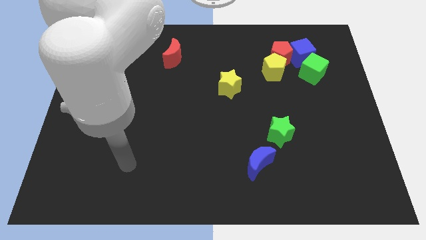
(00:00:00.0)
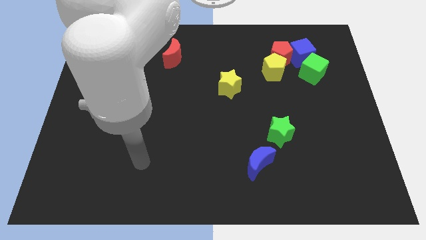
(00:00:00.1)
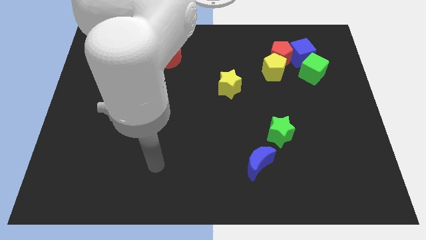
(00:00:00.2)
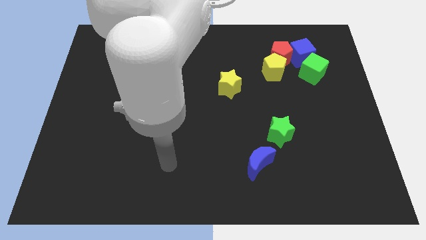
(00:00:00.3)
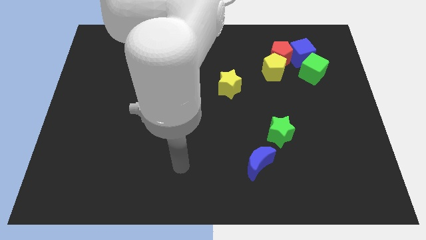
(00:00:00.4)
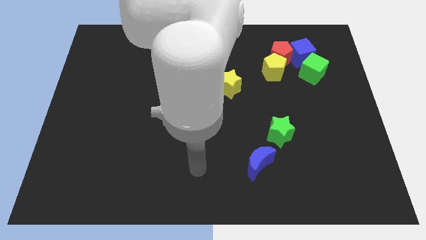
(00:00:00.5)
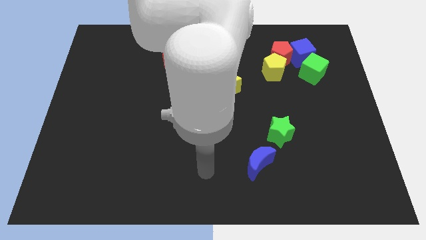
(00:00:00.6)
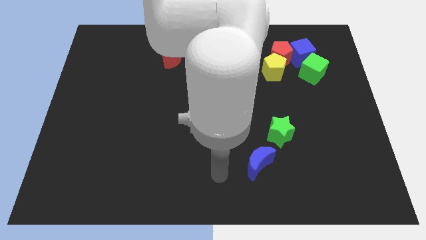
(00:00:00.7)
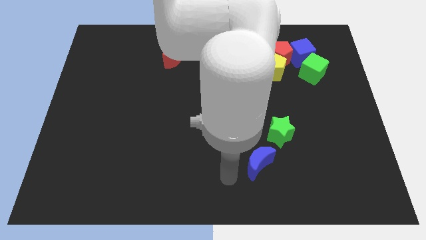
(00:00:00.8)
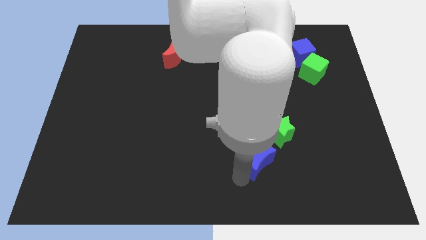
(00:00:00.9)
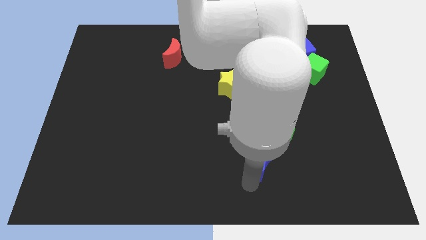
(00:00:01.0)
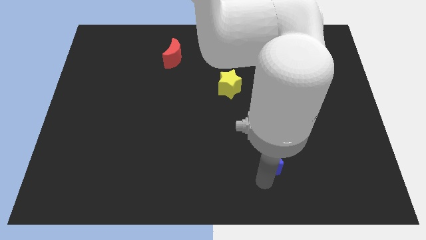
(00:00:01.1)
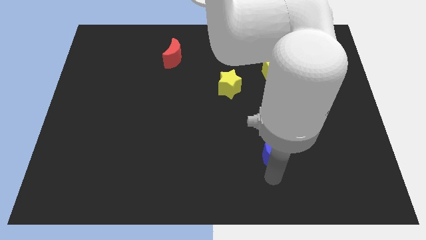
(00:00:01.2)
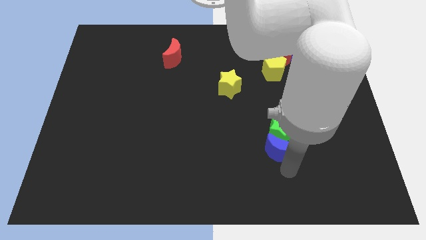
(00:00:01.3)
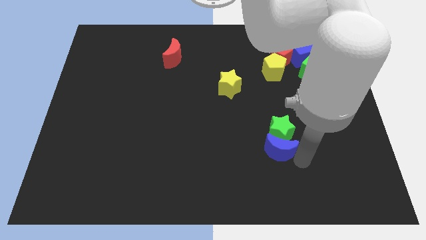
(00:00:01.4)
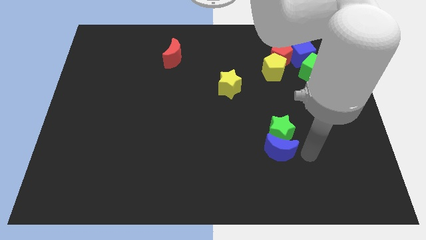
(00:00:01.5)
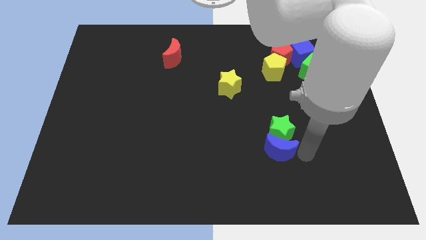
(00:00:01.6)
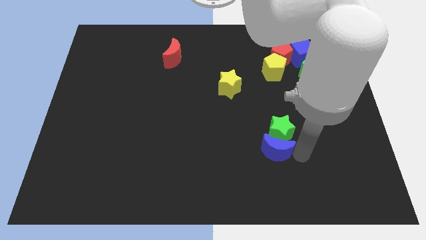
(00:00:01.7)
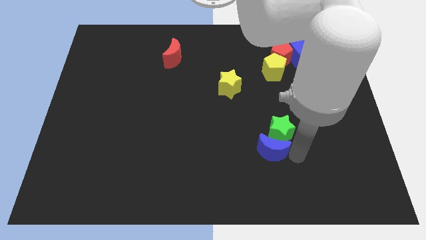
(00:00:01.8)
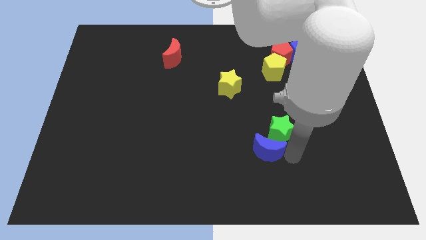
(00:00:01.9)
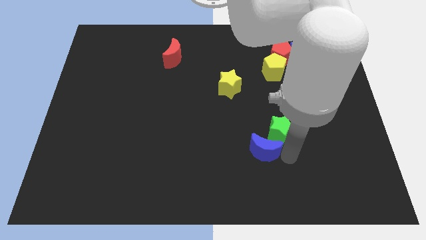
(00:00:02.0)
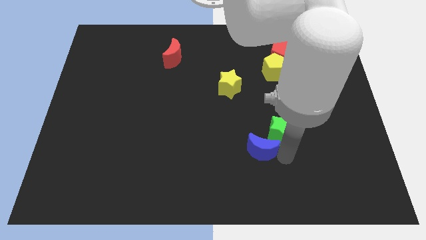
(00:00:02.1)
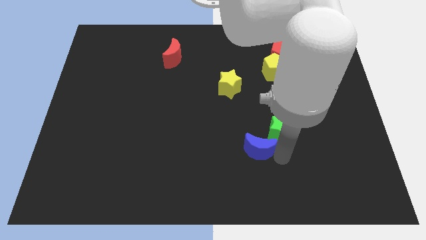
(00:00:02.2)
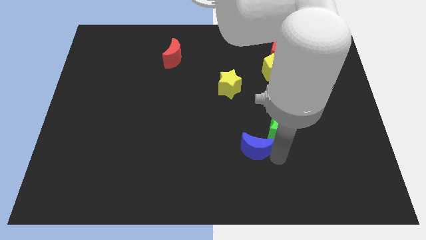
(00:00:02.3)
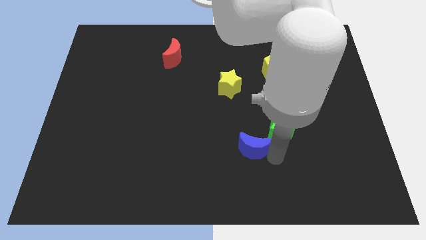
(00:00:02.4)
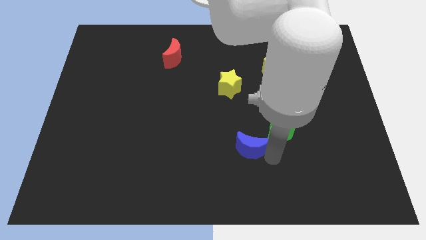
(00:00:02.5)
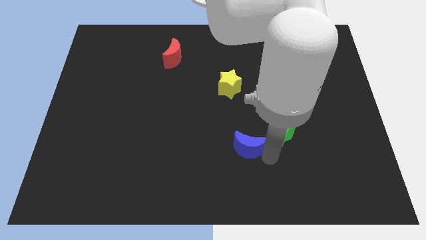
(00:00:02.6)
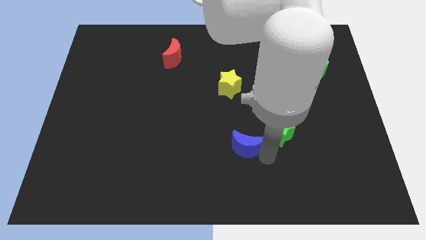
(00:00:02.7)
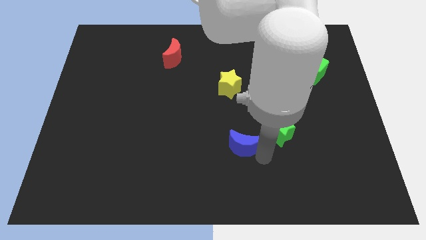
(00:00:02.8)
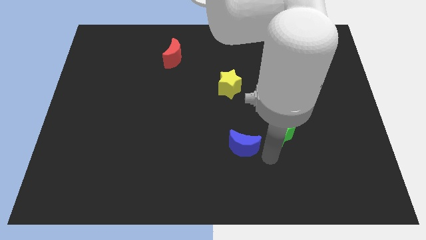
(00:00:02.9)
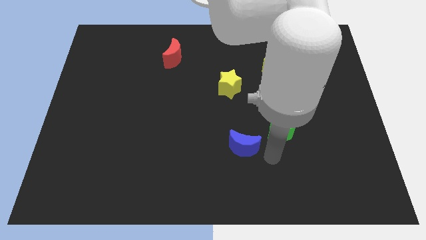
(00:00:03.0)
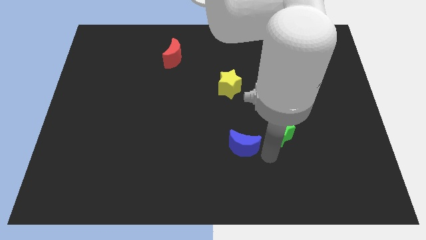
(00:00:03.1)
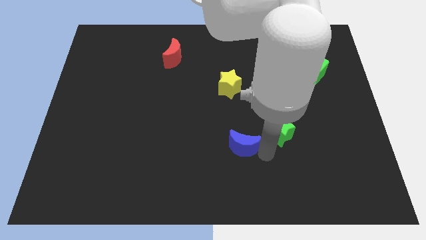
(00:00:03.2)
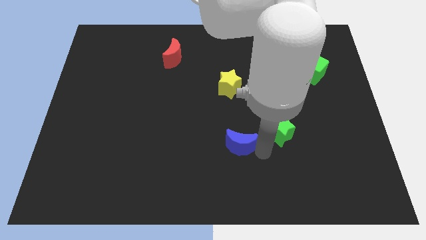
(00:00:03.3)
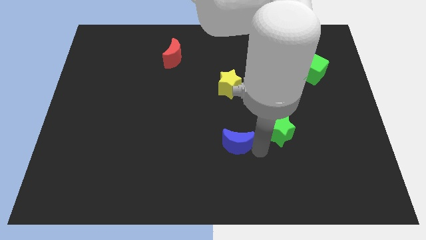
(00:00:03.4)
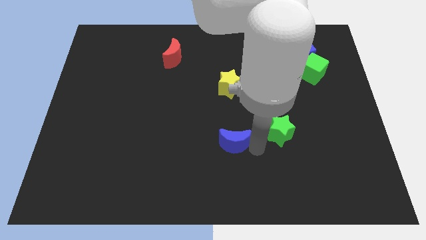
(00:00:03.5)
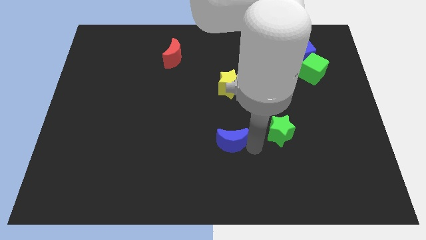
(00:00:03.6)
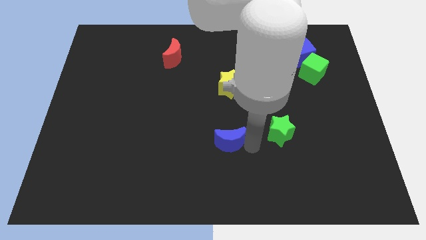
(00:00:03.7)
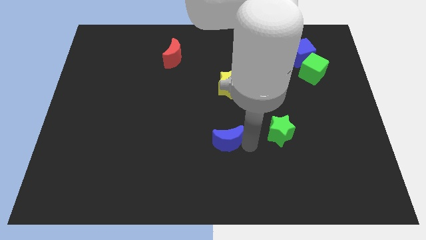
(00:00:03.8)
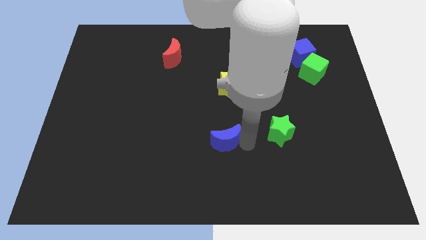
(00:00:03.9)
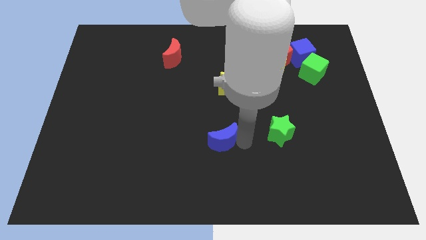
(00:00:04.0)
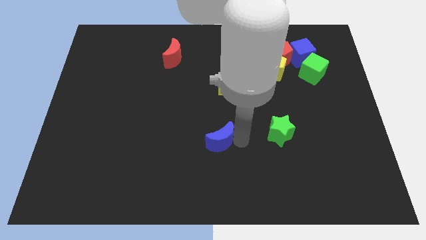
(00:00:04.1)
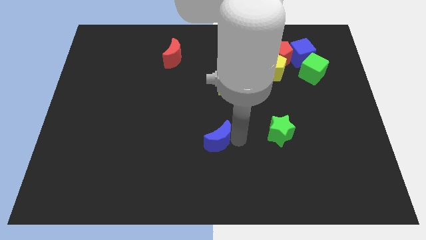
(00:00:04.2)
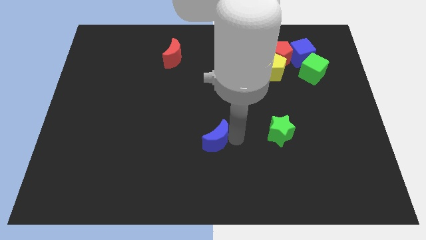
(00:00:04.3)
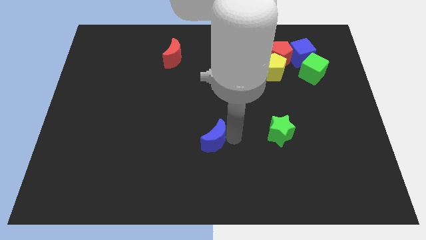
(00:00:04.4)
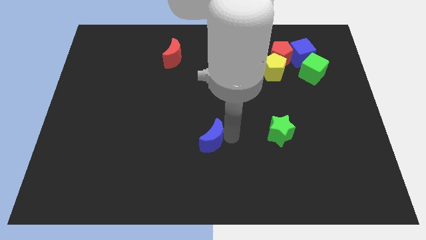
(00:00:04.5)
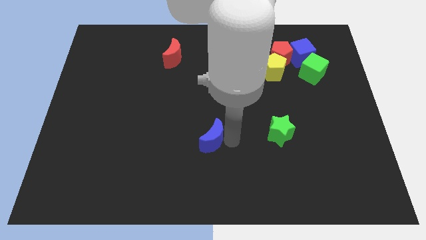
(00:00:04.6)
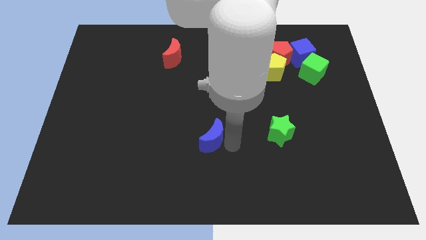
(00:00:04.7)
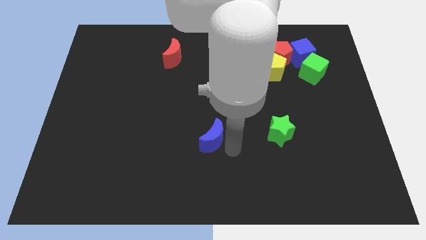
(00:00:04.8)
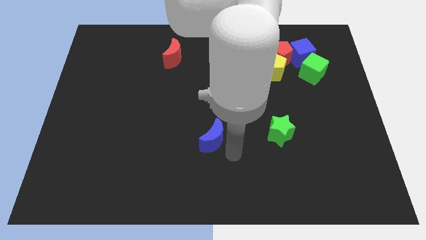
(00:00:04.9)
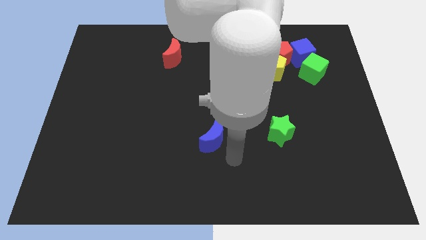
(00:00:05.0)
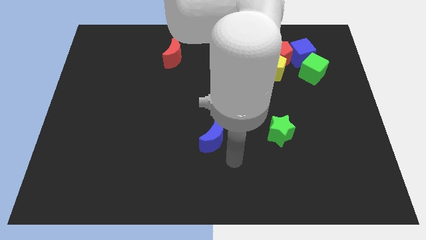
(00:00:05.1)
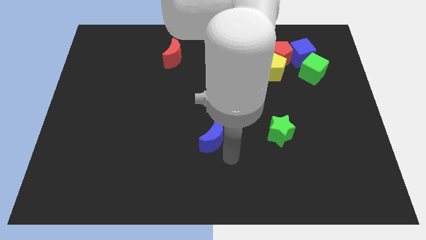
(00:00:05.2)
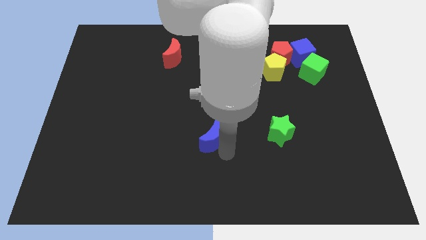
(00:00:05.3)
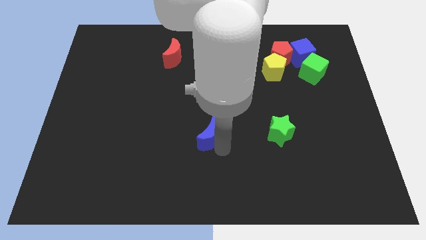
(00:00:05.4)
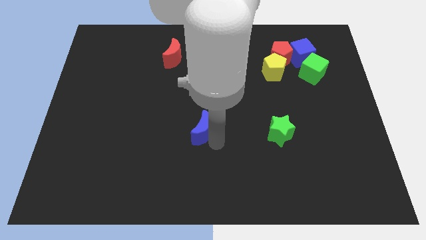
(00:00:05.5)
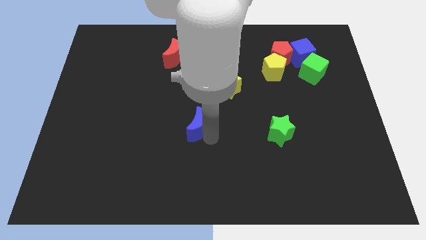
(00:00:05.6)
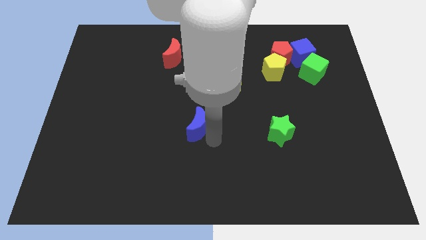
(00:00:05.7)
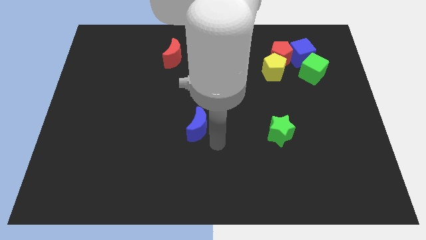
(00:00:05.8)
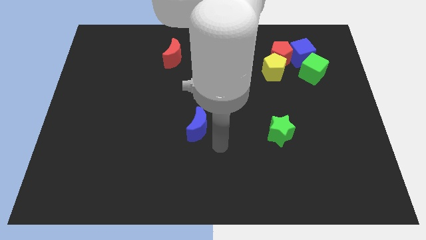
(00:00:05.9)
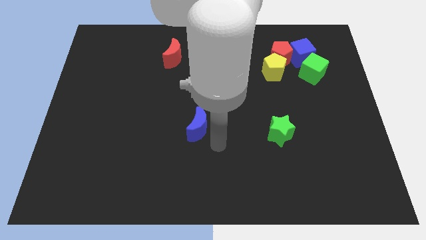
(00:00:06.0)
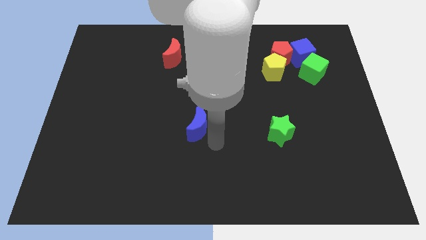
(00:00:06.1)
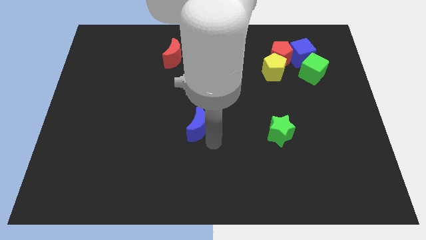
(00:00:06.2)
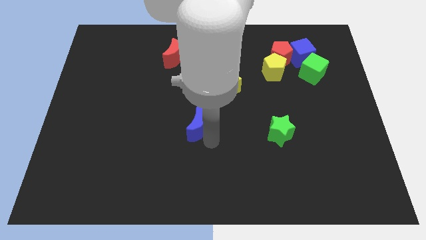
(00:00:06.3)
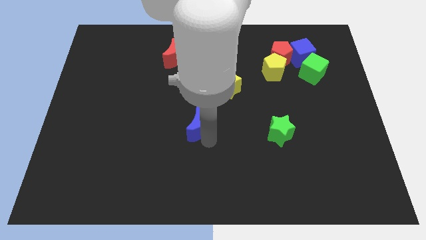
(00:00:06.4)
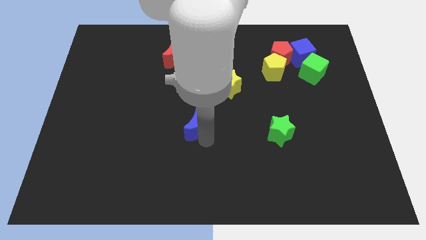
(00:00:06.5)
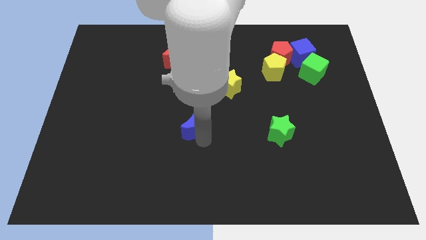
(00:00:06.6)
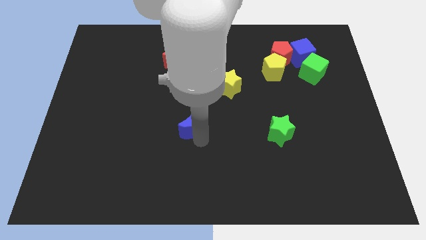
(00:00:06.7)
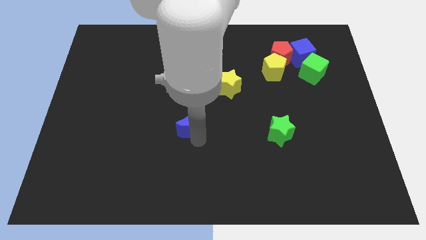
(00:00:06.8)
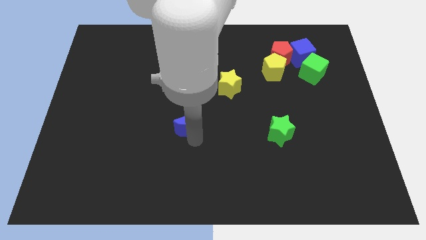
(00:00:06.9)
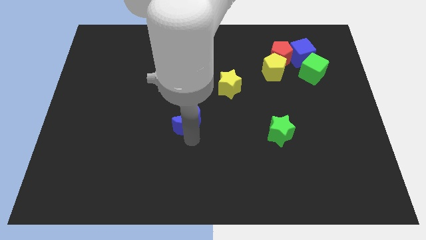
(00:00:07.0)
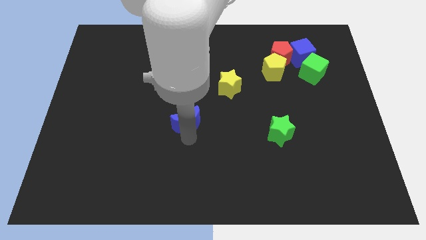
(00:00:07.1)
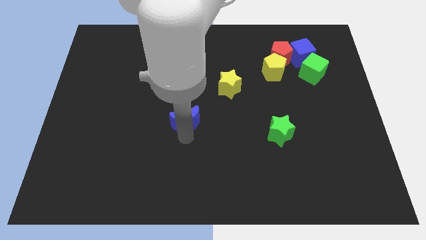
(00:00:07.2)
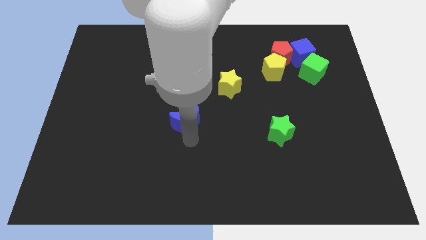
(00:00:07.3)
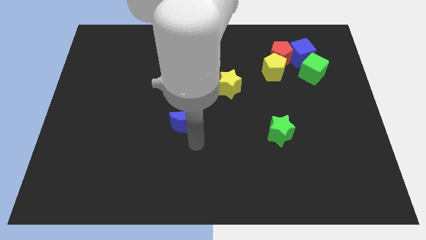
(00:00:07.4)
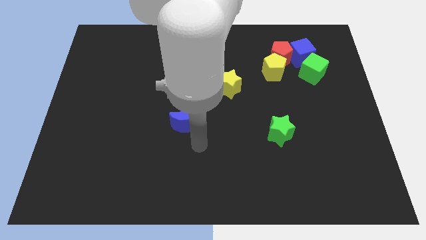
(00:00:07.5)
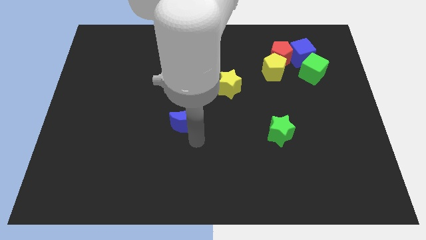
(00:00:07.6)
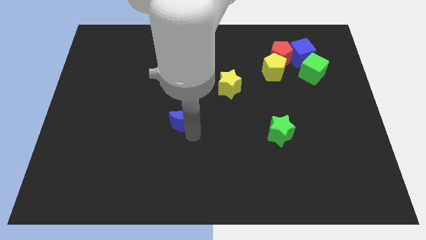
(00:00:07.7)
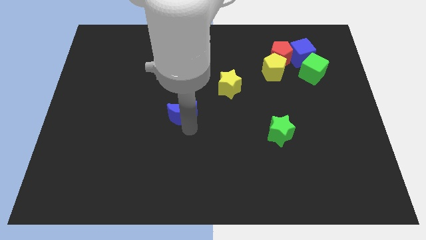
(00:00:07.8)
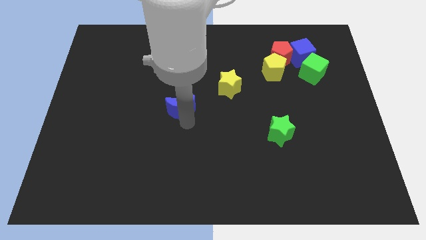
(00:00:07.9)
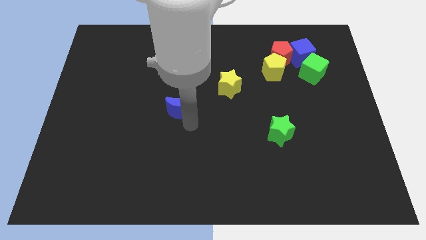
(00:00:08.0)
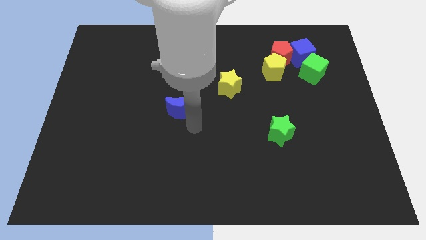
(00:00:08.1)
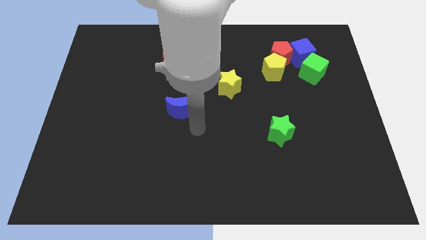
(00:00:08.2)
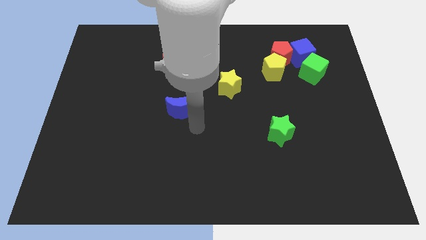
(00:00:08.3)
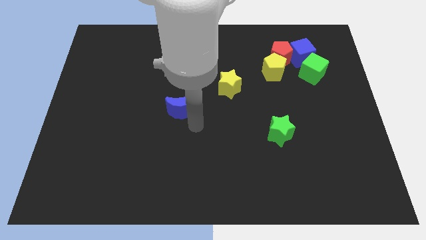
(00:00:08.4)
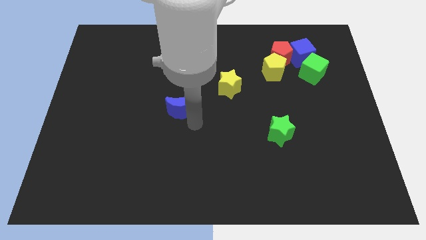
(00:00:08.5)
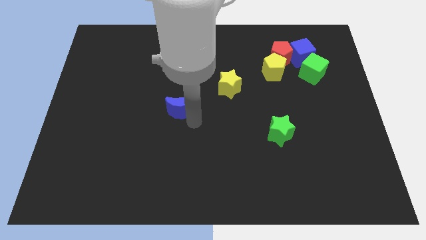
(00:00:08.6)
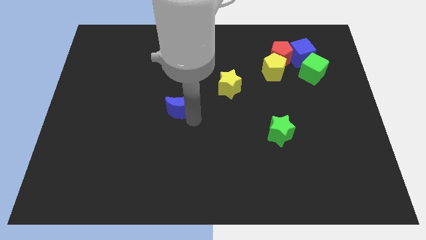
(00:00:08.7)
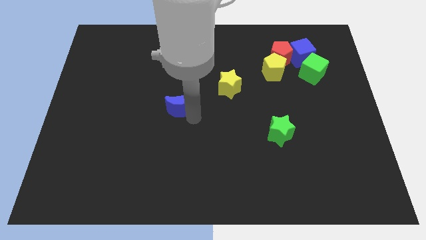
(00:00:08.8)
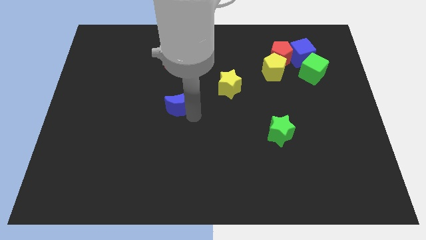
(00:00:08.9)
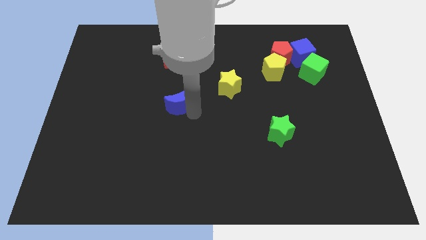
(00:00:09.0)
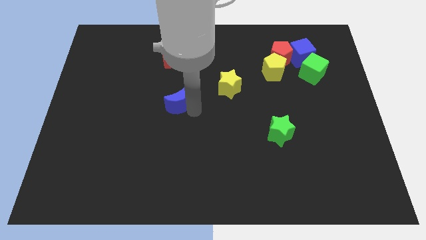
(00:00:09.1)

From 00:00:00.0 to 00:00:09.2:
push the blue moon below the red moon
